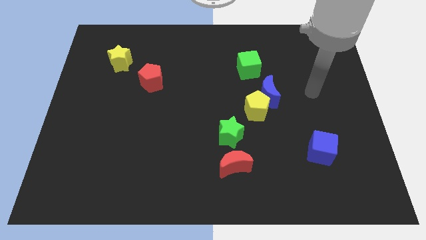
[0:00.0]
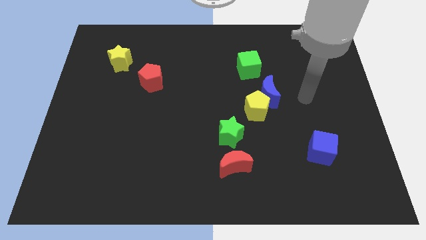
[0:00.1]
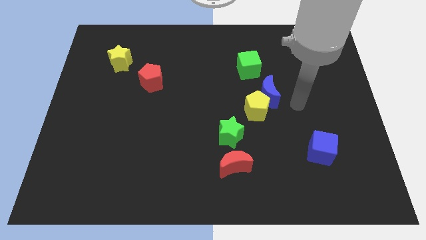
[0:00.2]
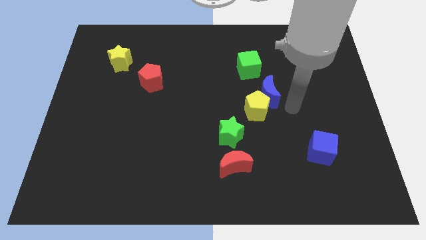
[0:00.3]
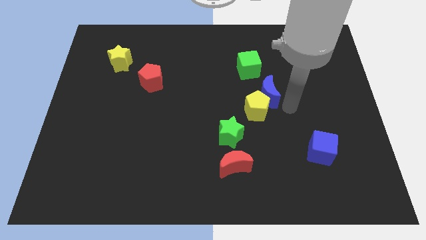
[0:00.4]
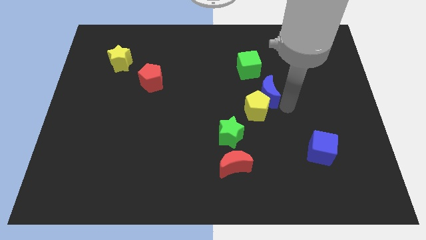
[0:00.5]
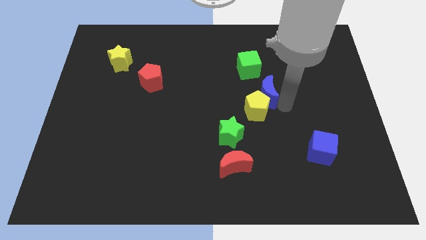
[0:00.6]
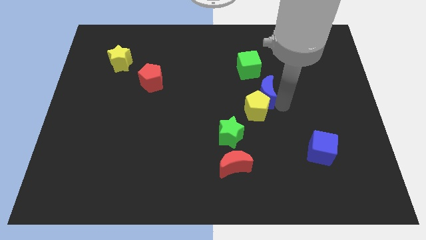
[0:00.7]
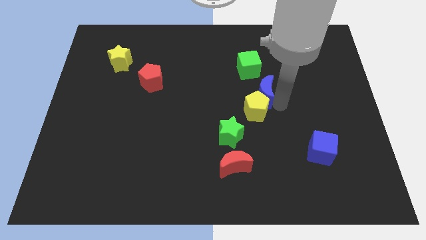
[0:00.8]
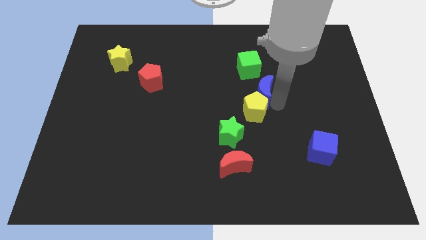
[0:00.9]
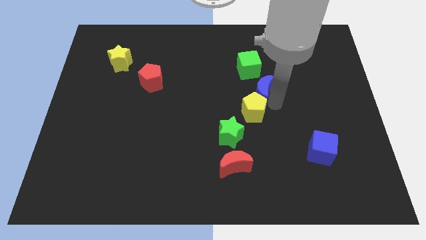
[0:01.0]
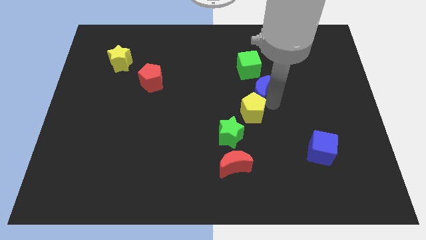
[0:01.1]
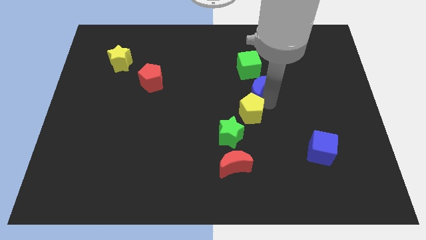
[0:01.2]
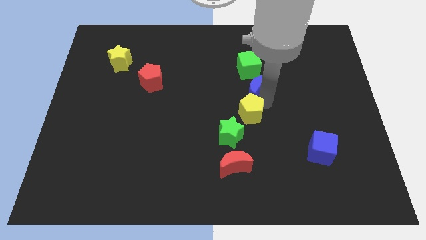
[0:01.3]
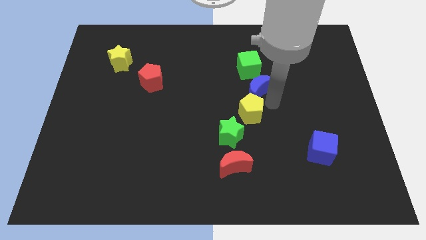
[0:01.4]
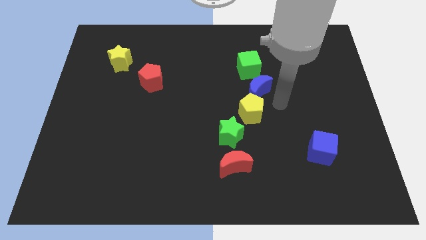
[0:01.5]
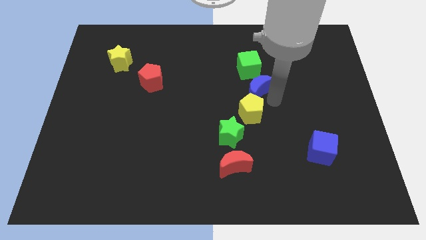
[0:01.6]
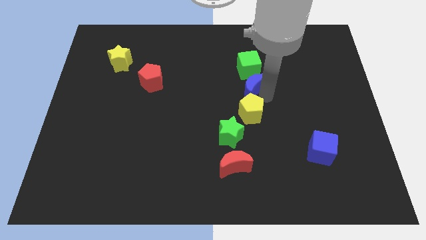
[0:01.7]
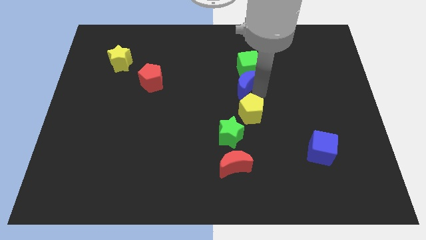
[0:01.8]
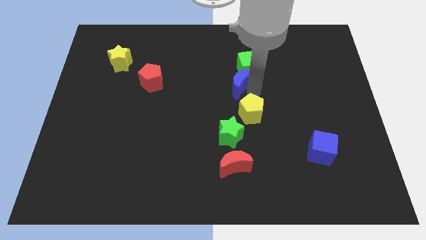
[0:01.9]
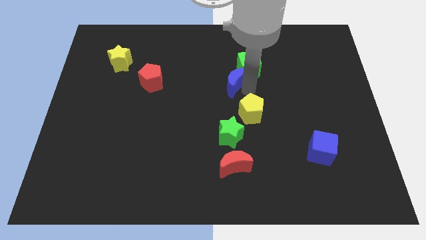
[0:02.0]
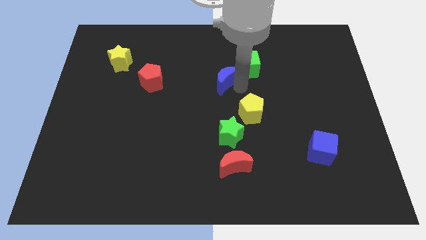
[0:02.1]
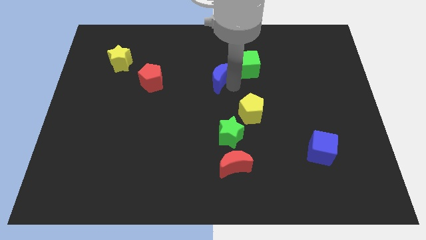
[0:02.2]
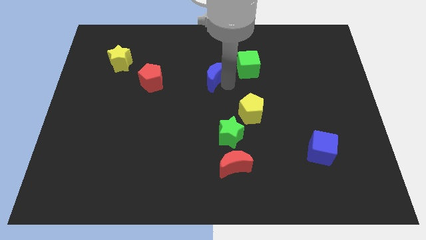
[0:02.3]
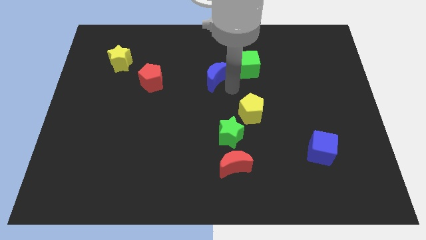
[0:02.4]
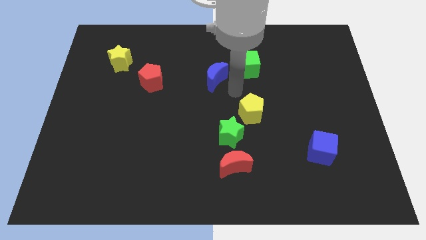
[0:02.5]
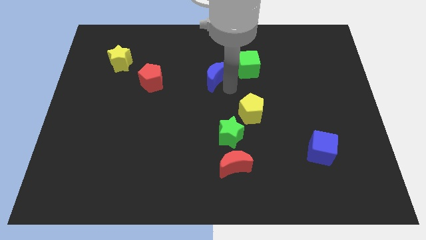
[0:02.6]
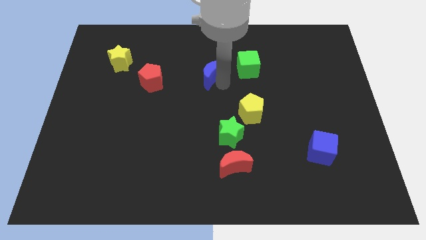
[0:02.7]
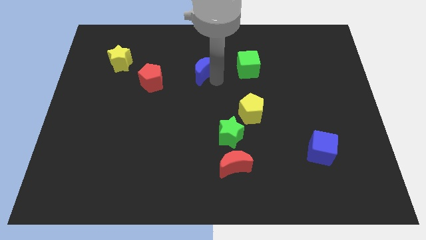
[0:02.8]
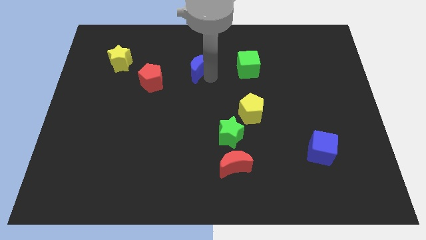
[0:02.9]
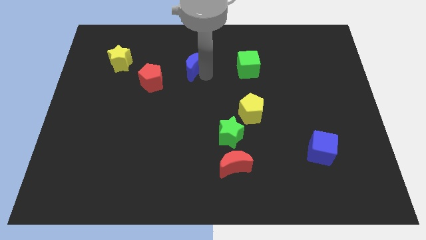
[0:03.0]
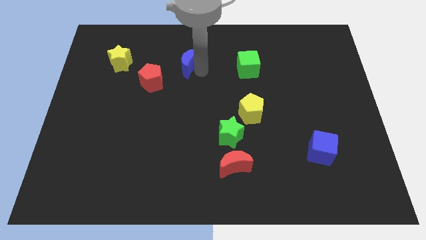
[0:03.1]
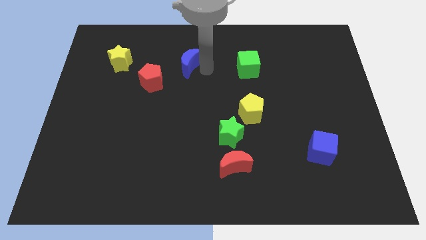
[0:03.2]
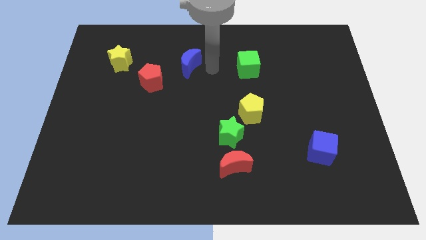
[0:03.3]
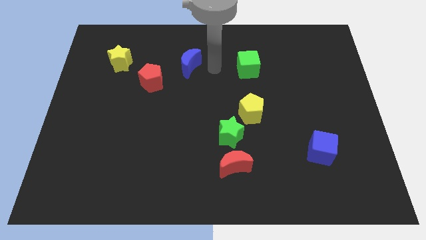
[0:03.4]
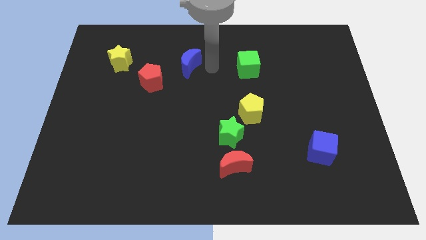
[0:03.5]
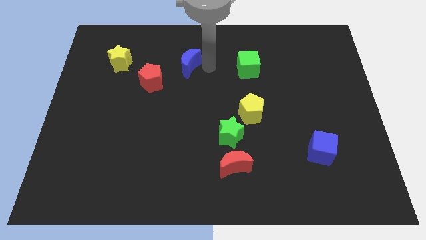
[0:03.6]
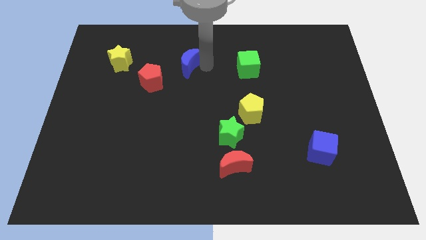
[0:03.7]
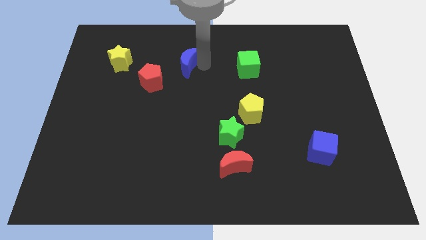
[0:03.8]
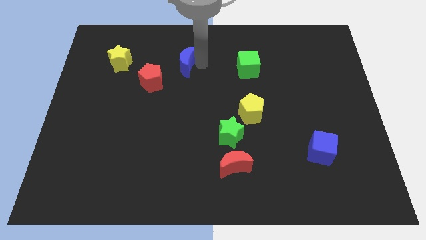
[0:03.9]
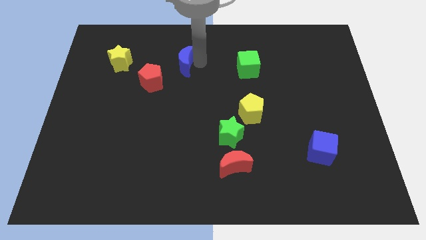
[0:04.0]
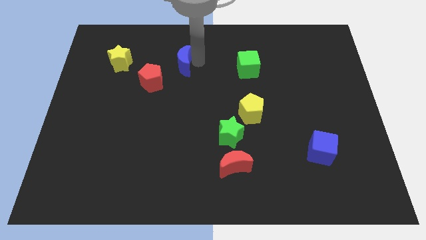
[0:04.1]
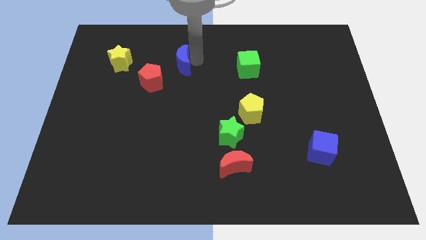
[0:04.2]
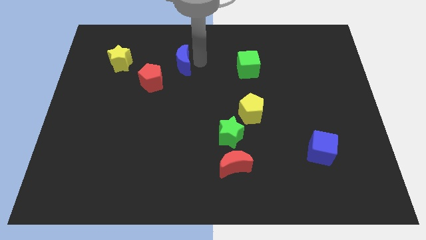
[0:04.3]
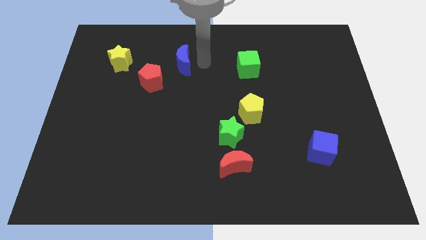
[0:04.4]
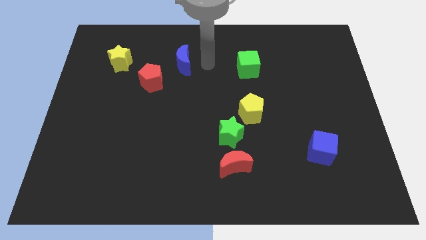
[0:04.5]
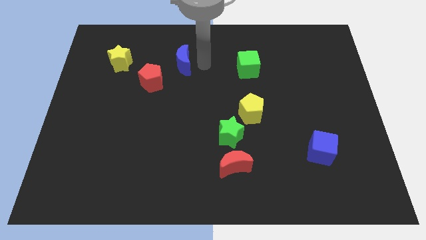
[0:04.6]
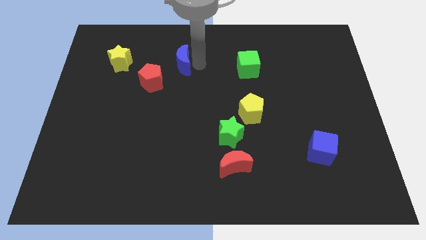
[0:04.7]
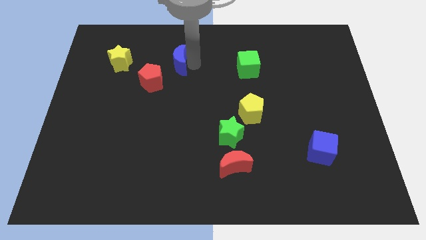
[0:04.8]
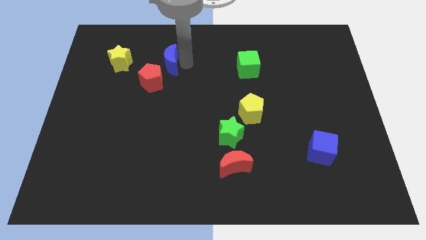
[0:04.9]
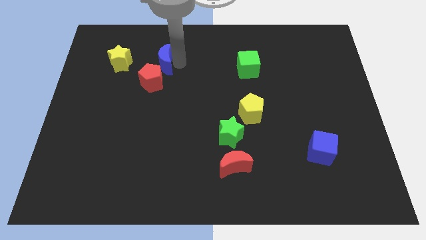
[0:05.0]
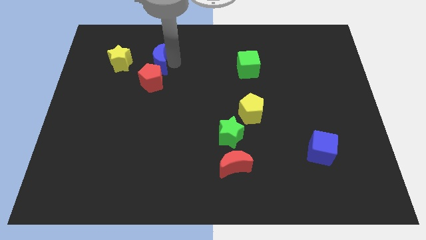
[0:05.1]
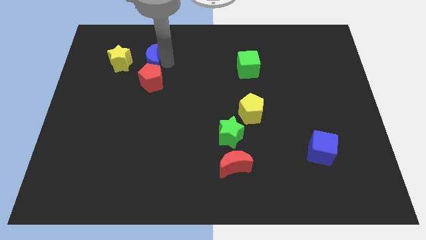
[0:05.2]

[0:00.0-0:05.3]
push the blue moon diagonally up and to the left of the red pentagon

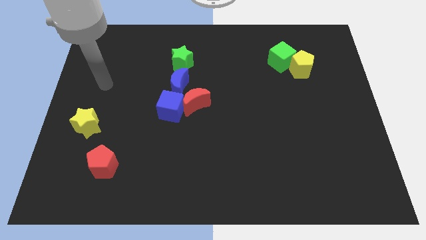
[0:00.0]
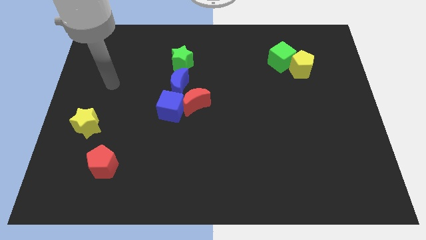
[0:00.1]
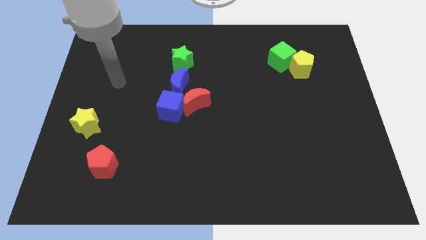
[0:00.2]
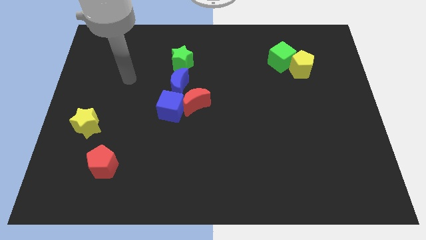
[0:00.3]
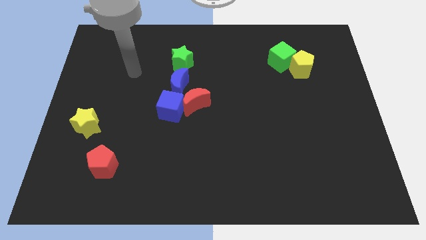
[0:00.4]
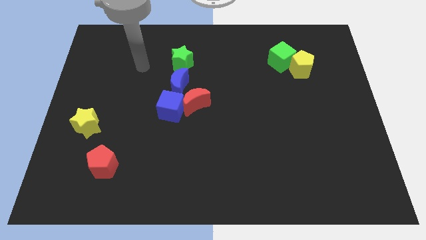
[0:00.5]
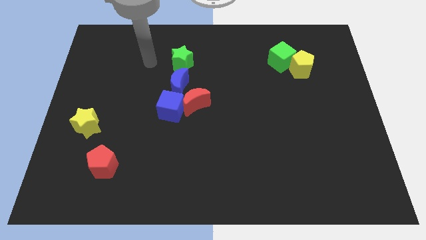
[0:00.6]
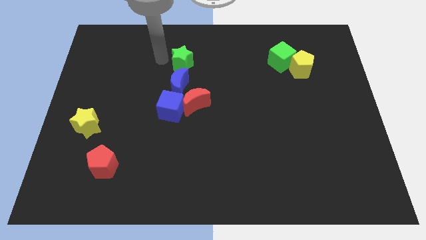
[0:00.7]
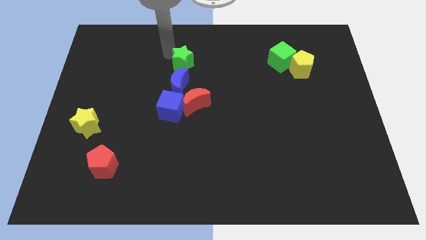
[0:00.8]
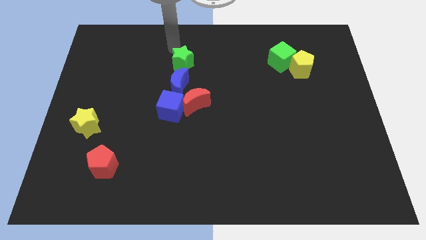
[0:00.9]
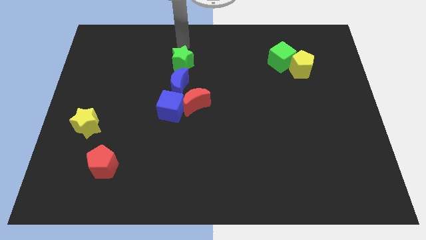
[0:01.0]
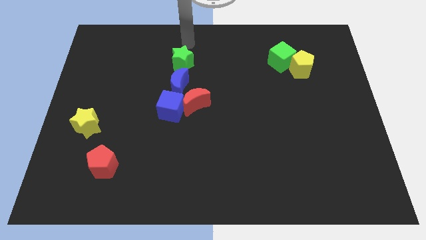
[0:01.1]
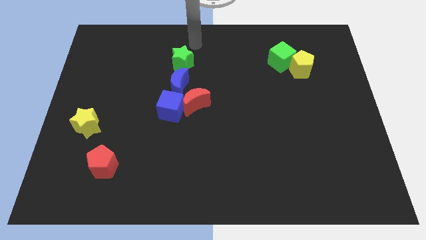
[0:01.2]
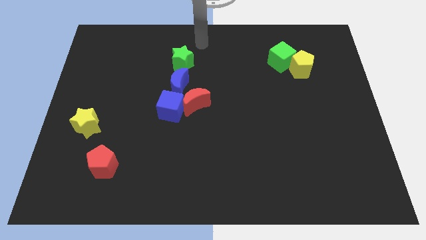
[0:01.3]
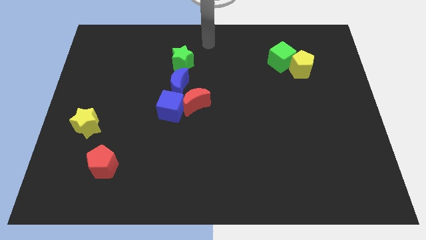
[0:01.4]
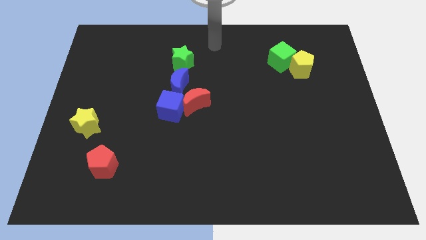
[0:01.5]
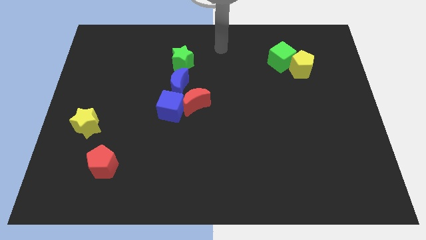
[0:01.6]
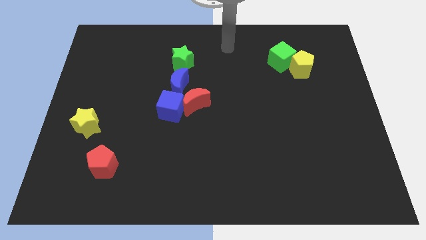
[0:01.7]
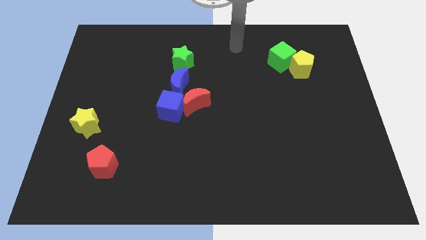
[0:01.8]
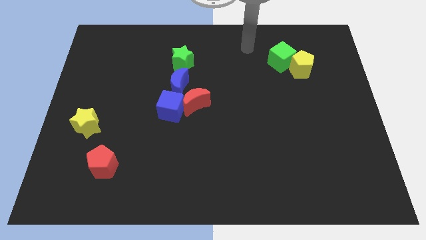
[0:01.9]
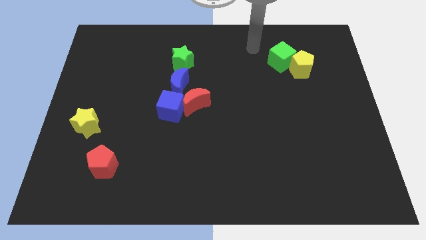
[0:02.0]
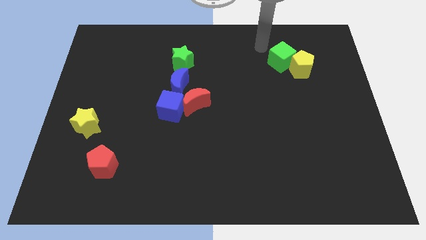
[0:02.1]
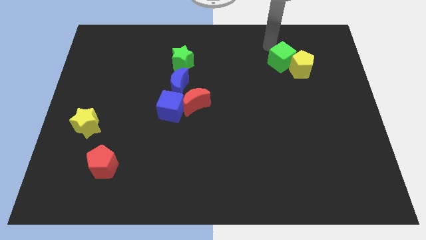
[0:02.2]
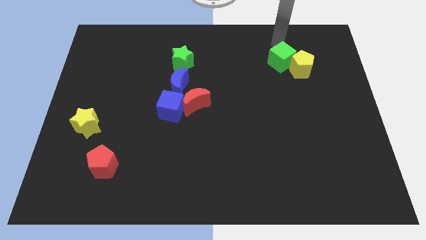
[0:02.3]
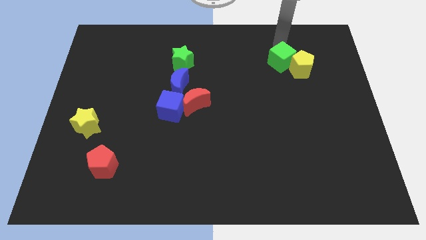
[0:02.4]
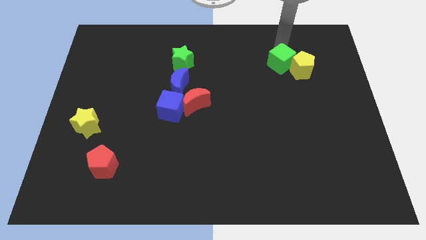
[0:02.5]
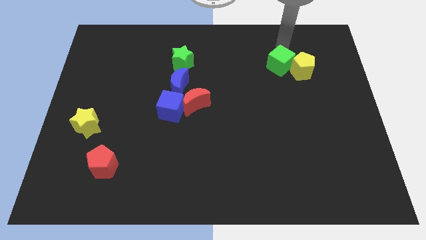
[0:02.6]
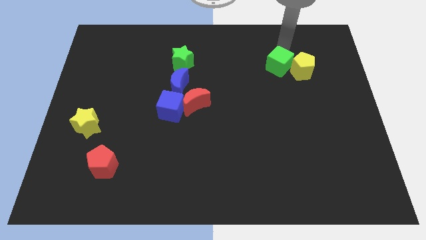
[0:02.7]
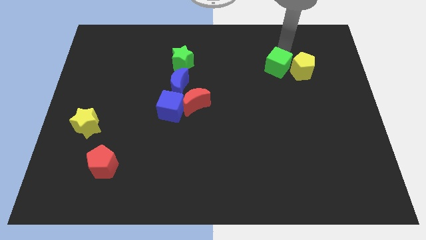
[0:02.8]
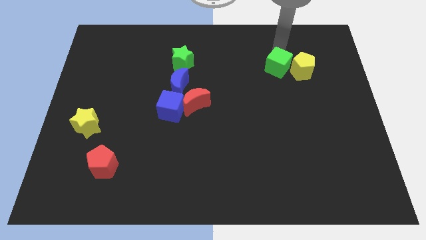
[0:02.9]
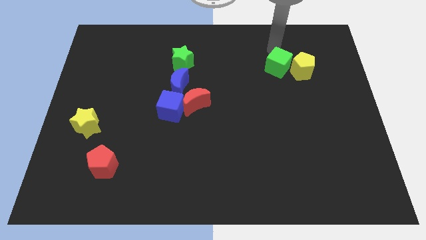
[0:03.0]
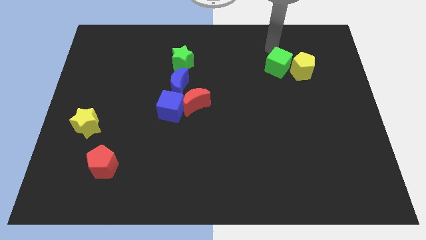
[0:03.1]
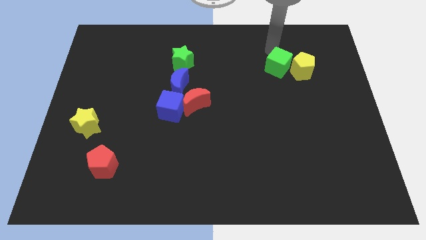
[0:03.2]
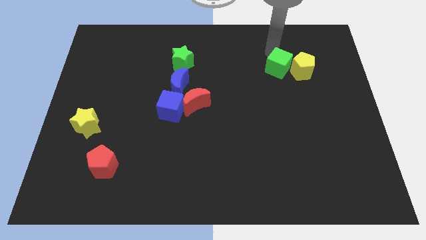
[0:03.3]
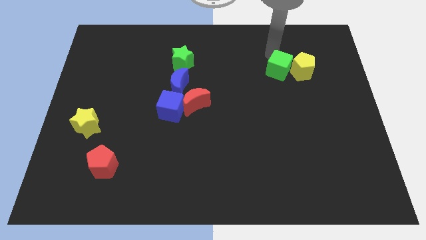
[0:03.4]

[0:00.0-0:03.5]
push the green cube to the bottom left side of the yellow pentagon
